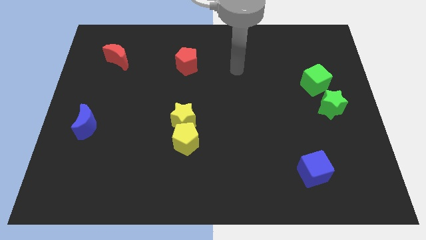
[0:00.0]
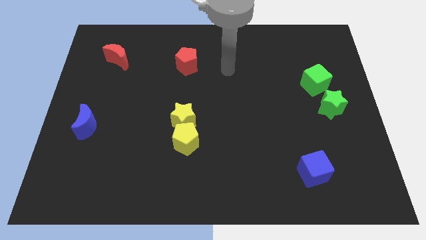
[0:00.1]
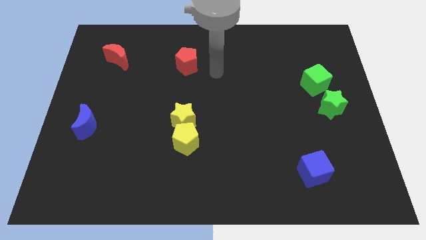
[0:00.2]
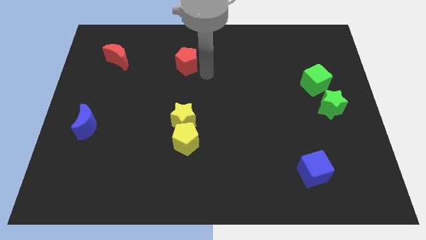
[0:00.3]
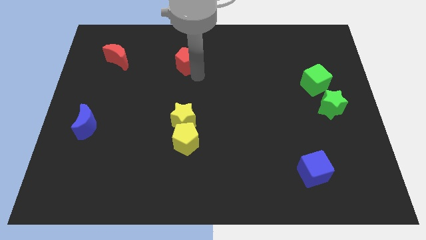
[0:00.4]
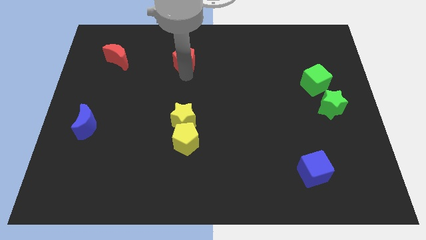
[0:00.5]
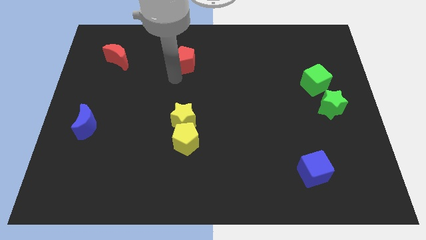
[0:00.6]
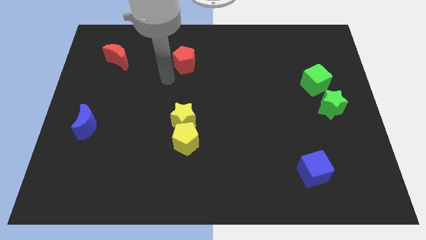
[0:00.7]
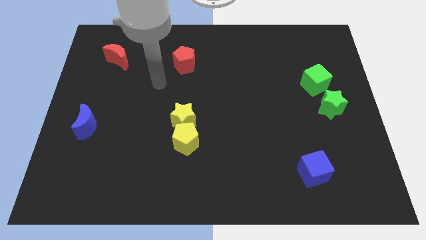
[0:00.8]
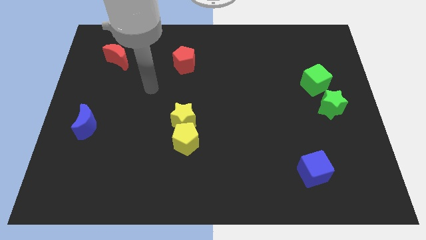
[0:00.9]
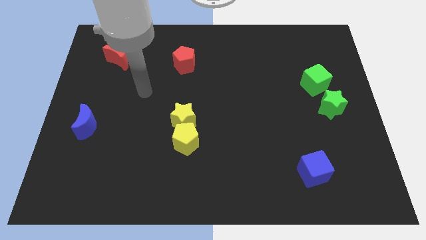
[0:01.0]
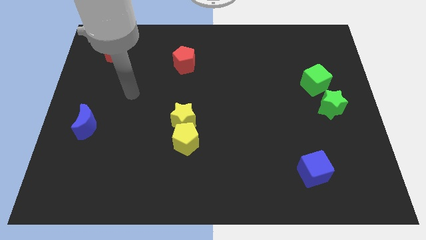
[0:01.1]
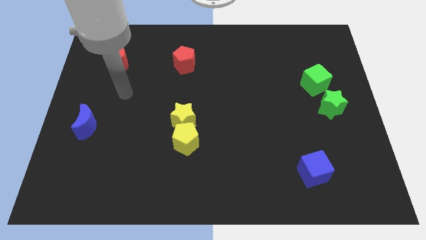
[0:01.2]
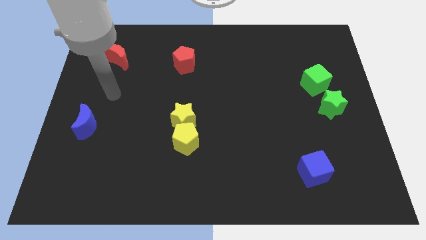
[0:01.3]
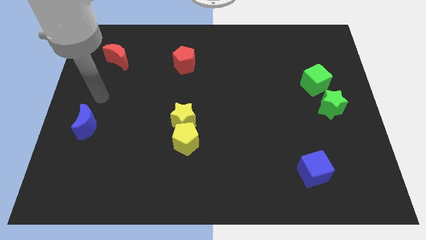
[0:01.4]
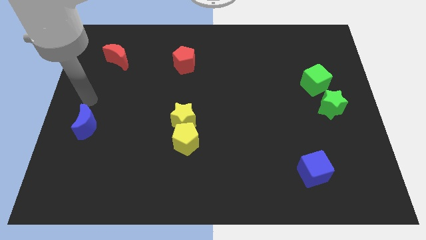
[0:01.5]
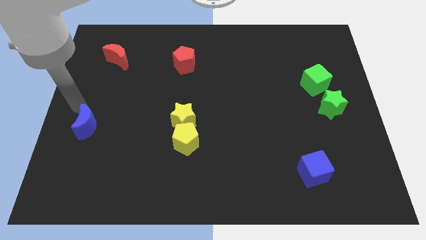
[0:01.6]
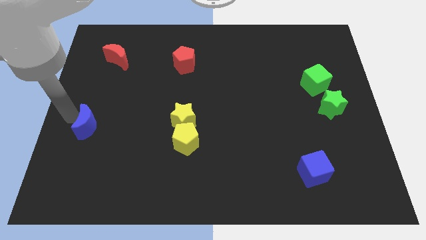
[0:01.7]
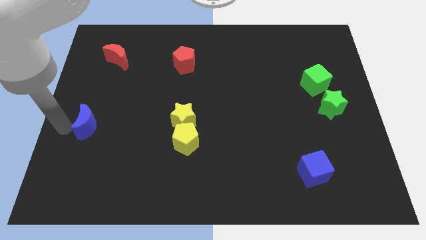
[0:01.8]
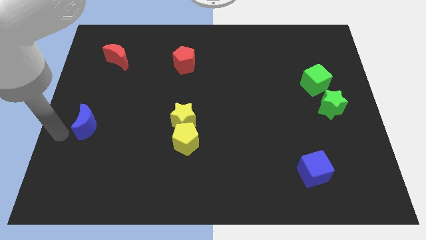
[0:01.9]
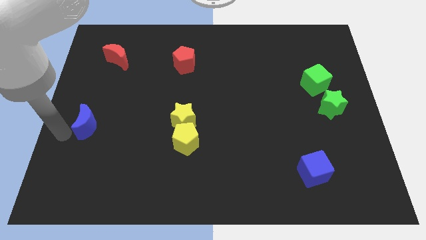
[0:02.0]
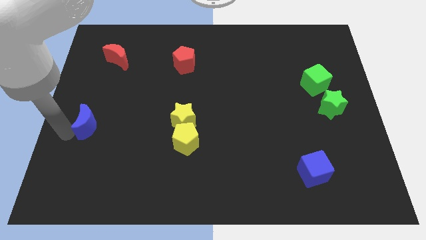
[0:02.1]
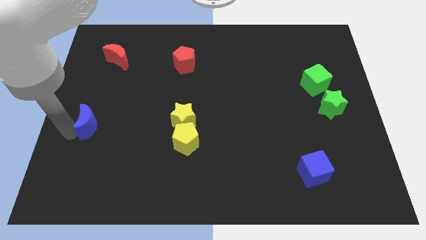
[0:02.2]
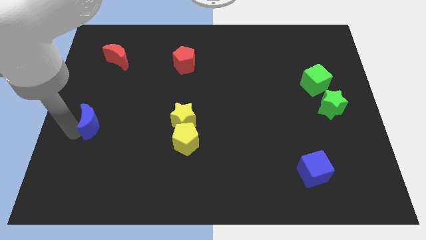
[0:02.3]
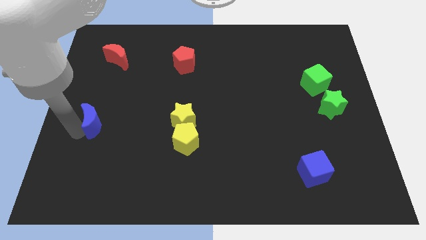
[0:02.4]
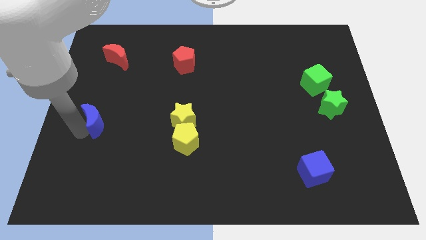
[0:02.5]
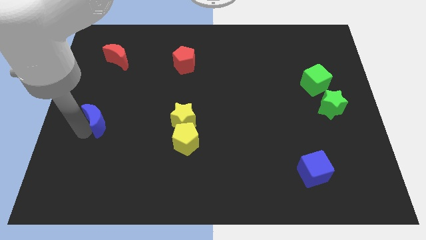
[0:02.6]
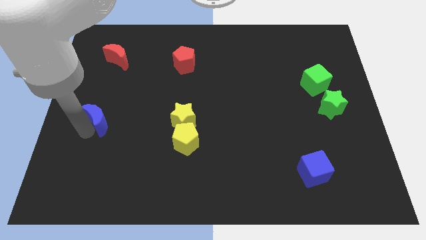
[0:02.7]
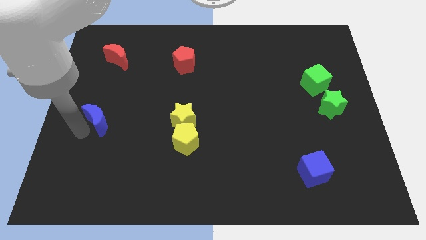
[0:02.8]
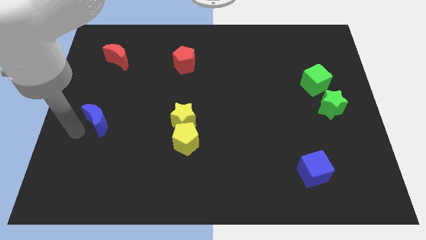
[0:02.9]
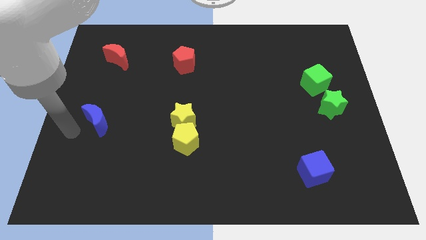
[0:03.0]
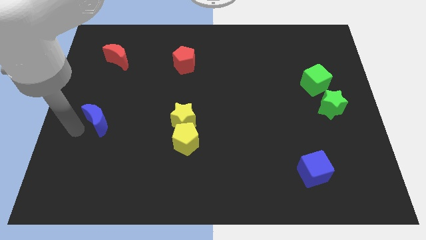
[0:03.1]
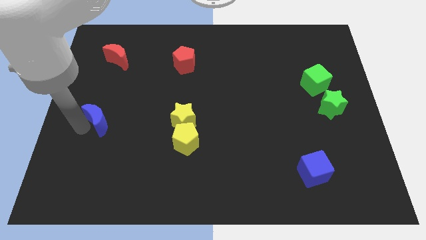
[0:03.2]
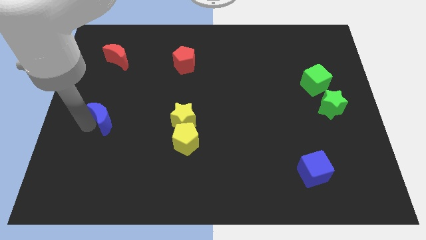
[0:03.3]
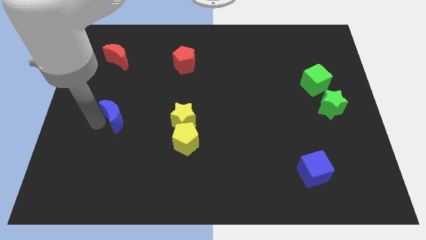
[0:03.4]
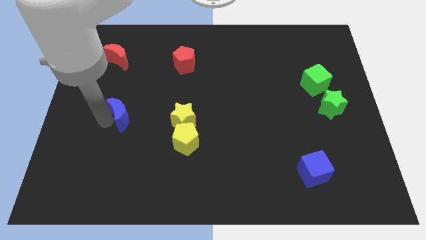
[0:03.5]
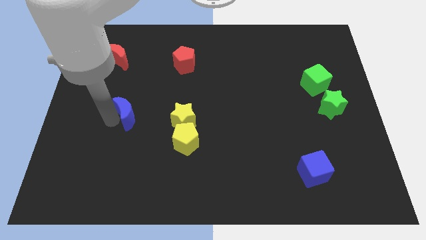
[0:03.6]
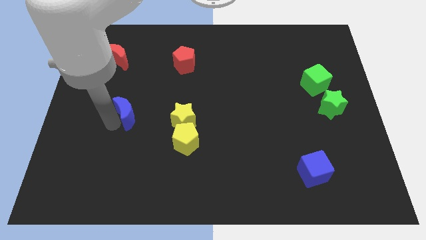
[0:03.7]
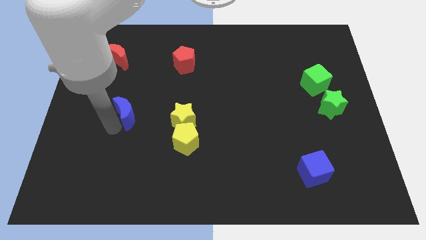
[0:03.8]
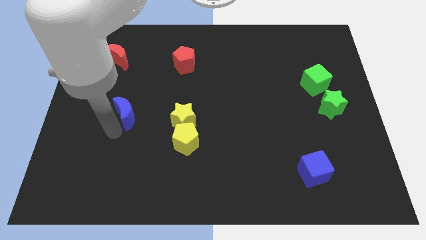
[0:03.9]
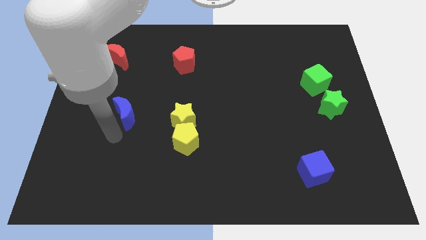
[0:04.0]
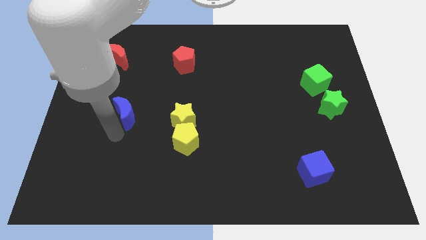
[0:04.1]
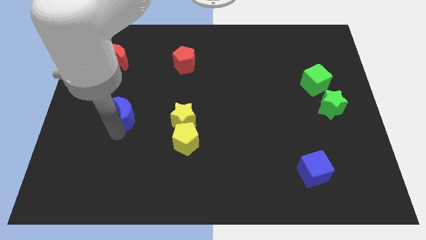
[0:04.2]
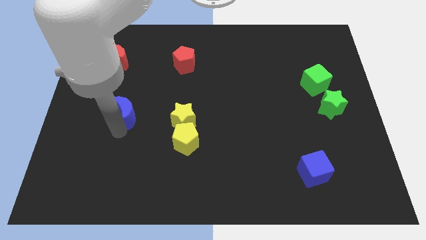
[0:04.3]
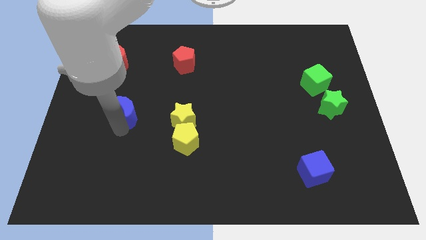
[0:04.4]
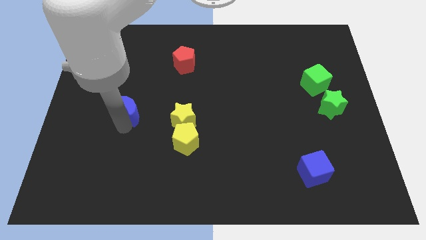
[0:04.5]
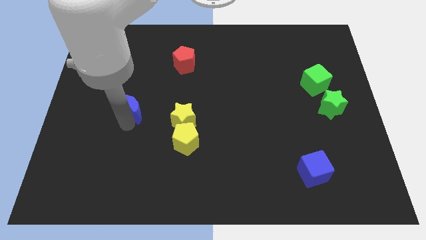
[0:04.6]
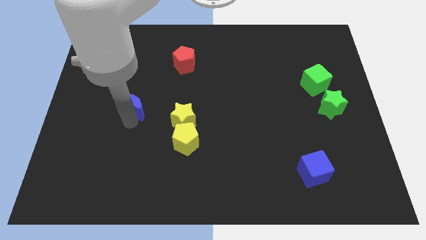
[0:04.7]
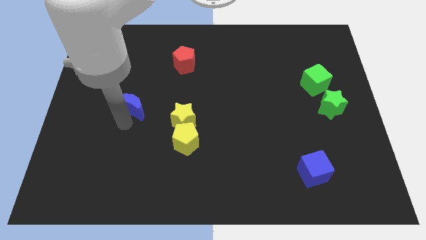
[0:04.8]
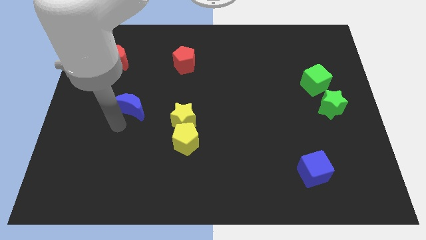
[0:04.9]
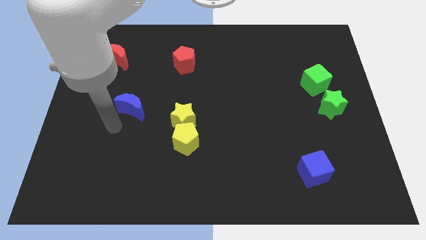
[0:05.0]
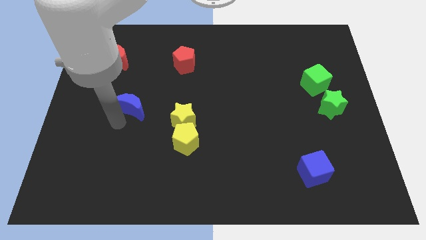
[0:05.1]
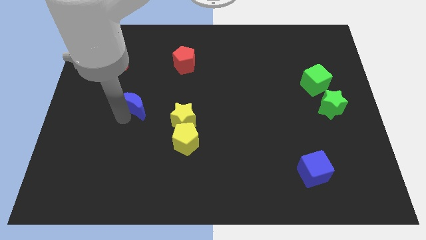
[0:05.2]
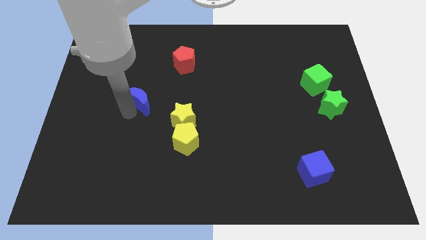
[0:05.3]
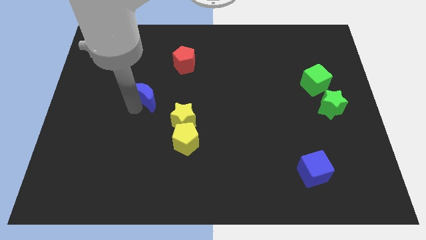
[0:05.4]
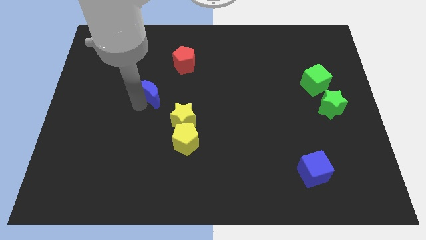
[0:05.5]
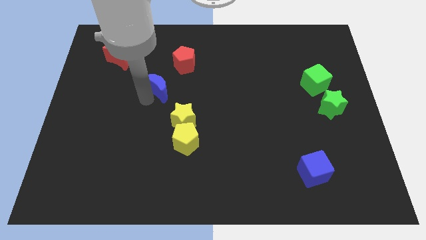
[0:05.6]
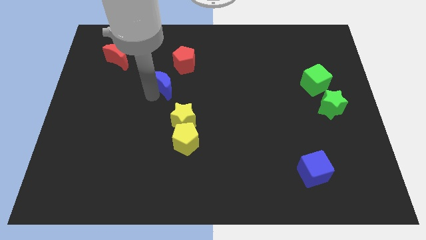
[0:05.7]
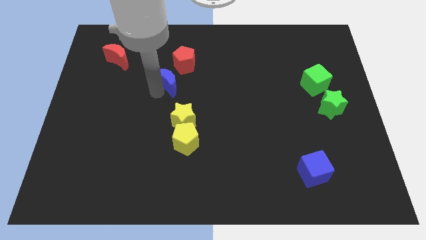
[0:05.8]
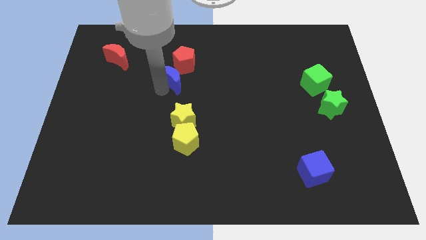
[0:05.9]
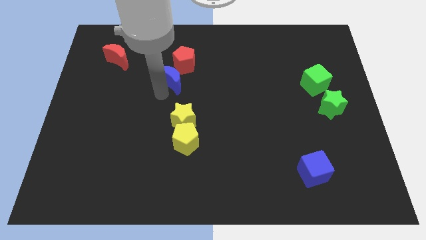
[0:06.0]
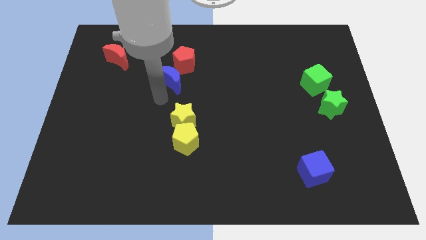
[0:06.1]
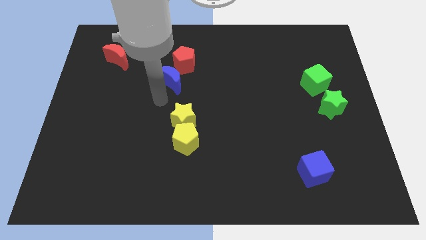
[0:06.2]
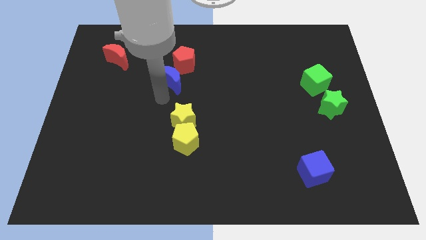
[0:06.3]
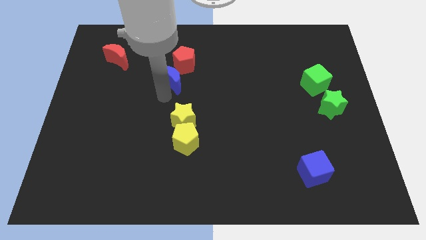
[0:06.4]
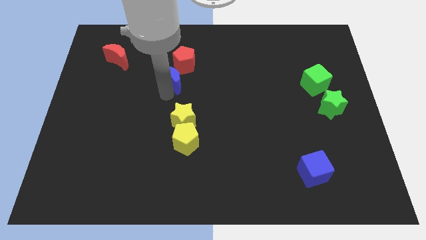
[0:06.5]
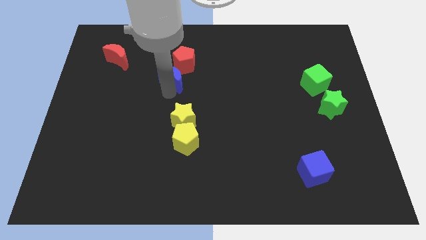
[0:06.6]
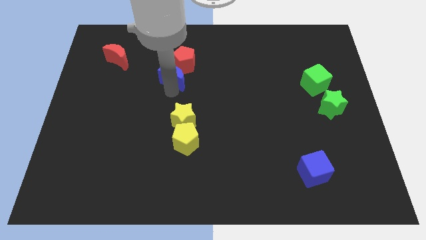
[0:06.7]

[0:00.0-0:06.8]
put the blue moon to the red pentagon
